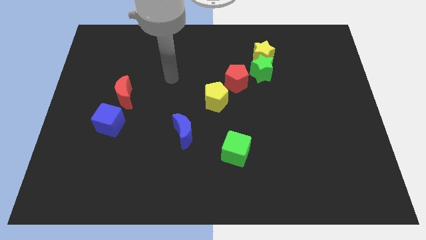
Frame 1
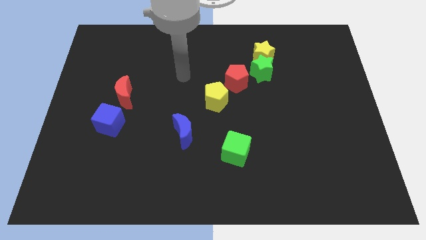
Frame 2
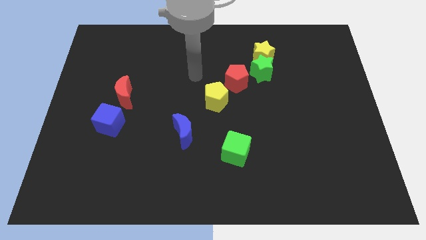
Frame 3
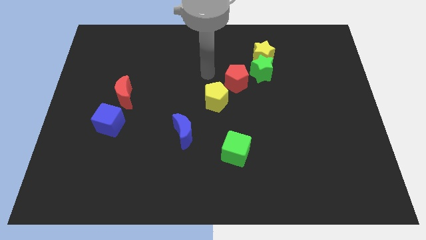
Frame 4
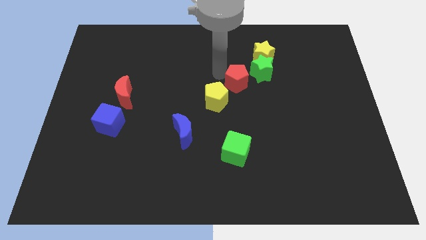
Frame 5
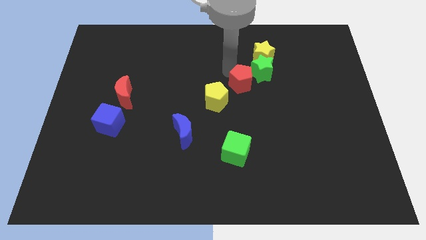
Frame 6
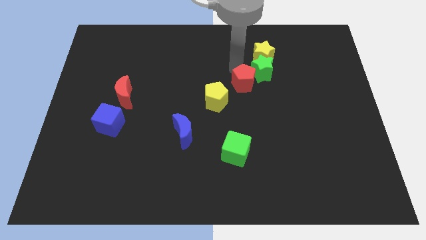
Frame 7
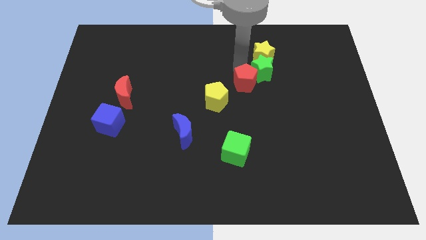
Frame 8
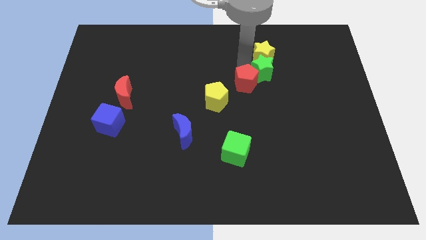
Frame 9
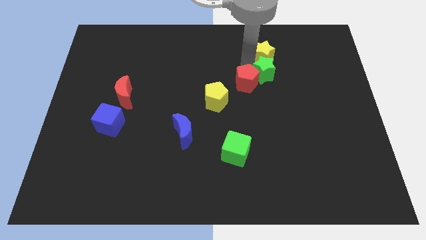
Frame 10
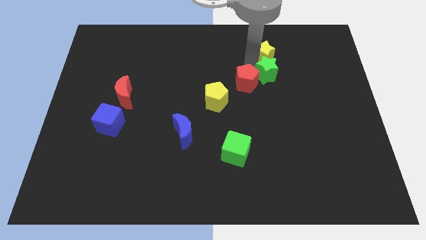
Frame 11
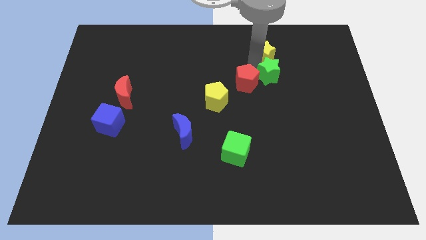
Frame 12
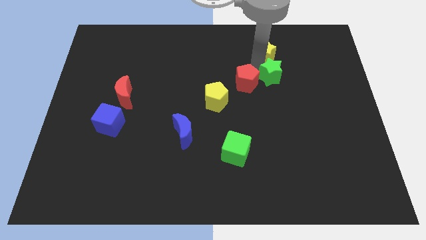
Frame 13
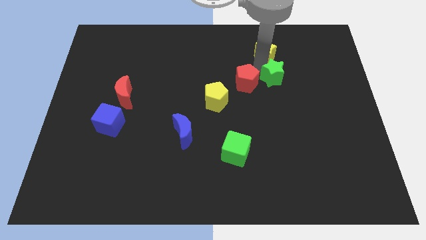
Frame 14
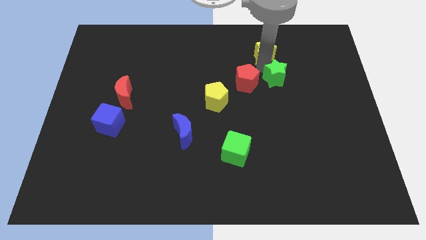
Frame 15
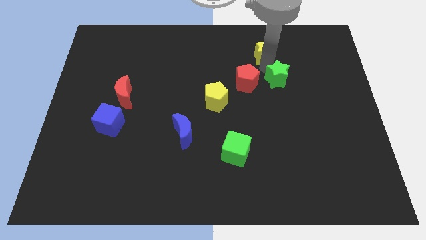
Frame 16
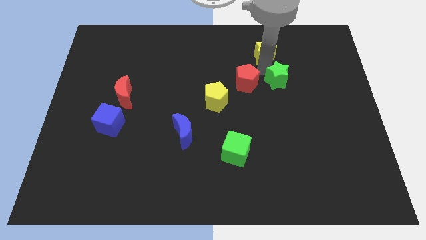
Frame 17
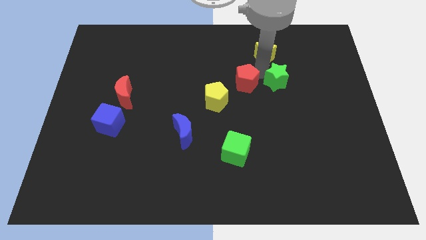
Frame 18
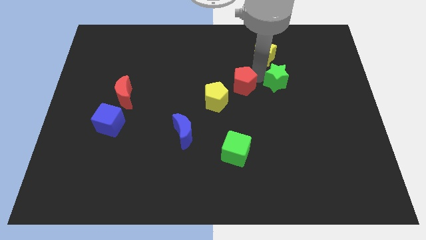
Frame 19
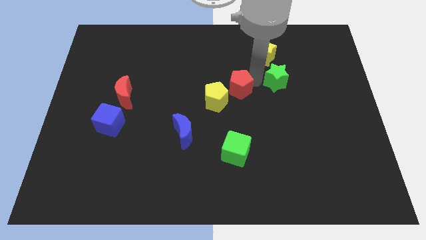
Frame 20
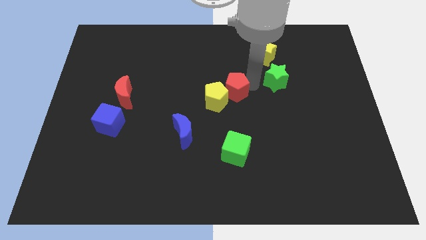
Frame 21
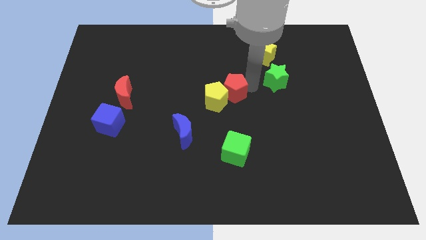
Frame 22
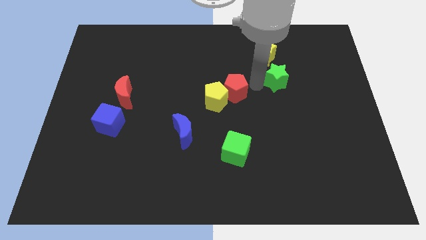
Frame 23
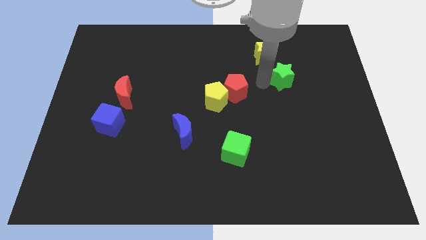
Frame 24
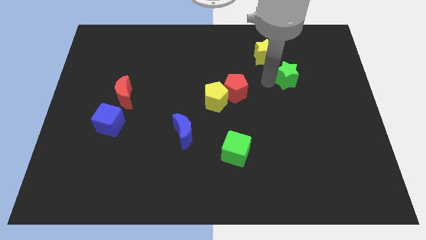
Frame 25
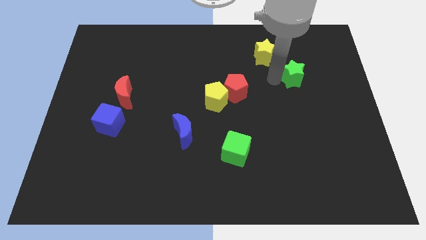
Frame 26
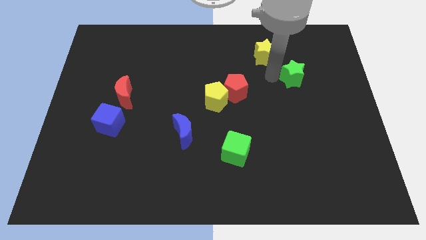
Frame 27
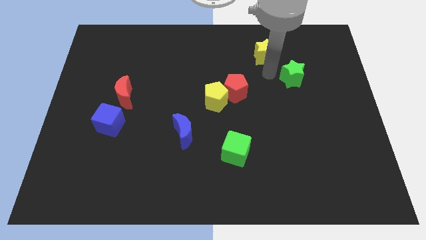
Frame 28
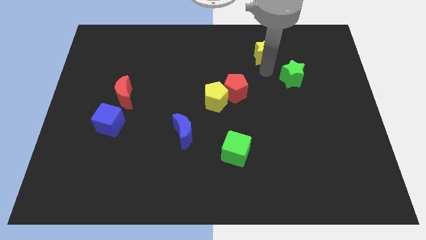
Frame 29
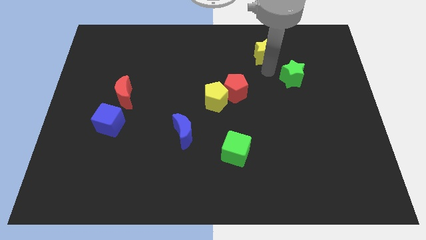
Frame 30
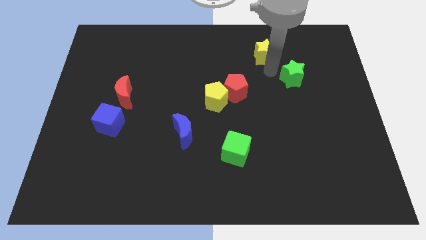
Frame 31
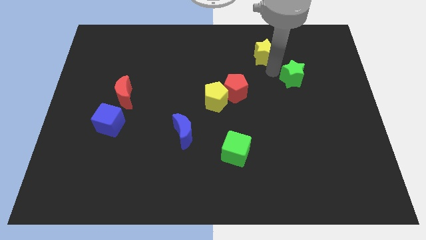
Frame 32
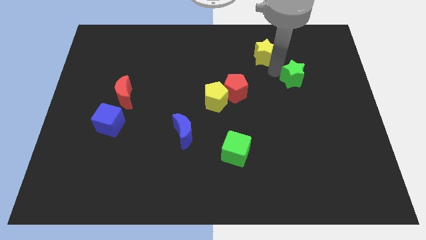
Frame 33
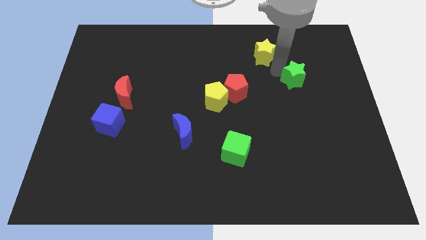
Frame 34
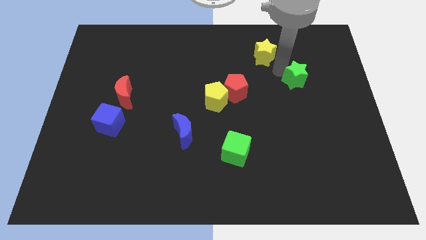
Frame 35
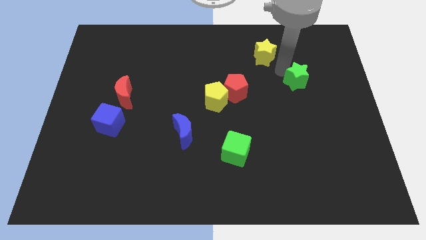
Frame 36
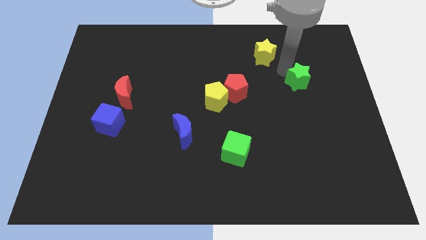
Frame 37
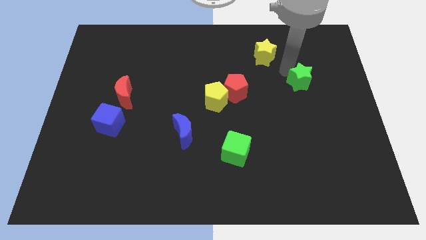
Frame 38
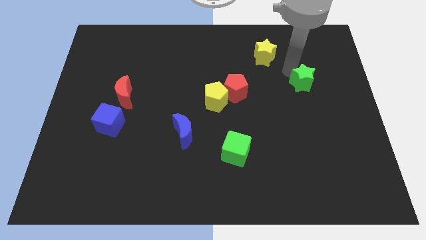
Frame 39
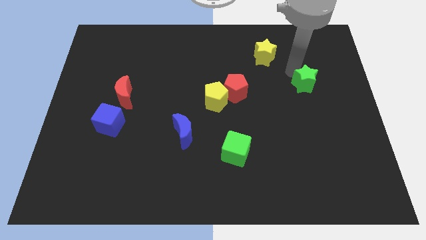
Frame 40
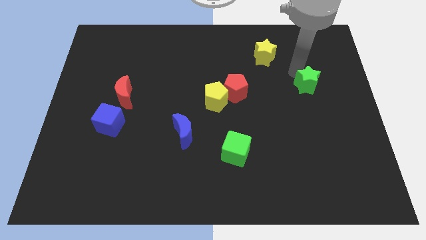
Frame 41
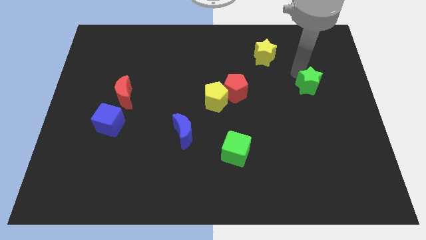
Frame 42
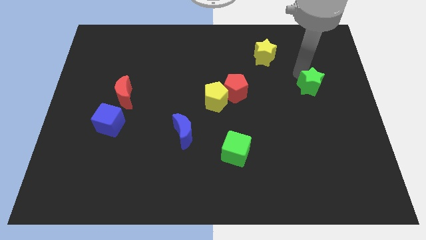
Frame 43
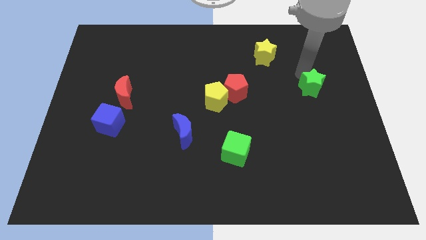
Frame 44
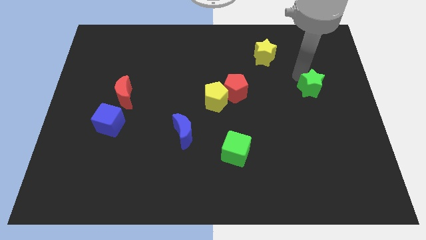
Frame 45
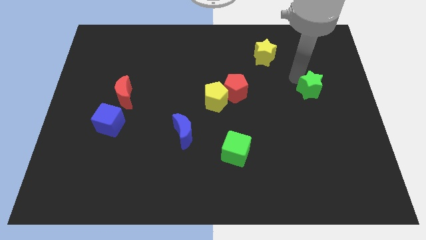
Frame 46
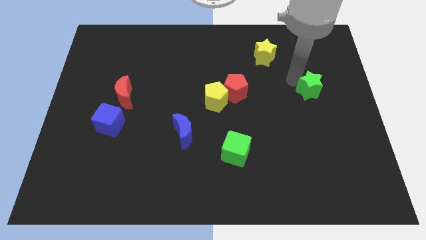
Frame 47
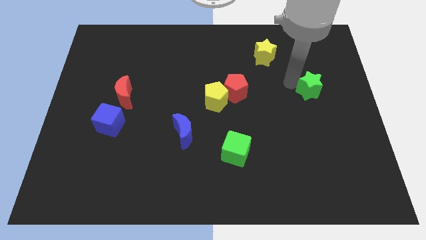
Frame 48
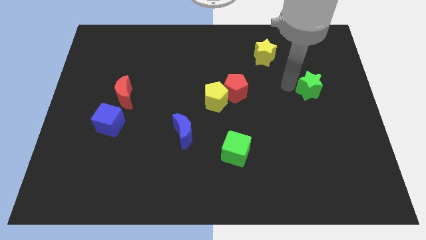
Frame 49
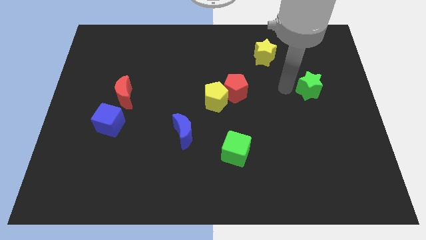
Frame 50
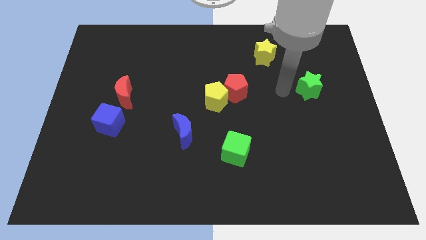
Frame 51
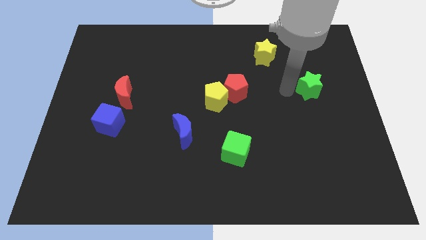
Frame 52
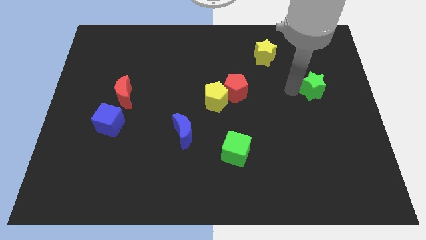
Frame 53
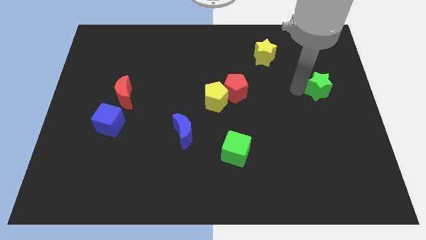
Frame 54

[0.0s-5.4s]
slide the green star to the right side

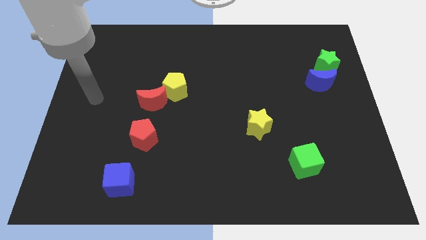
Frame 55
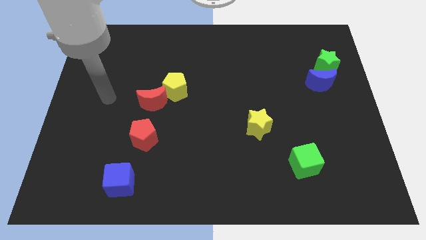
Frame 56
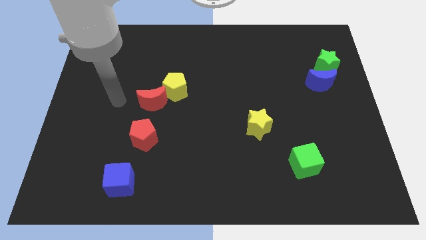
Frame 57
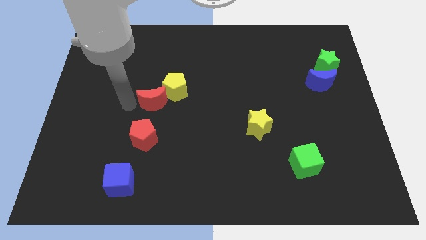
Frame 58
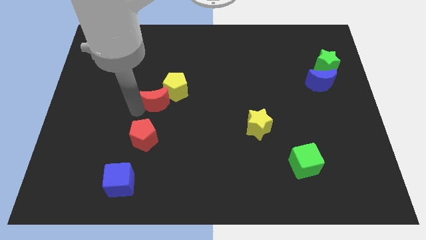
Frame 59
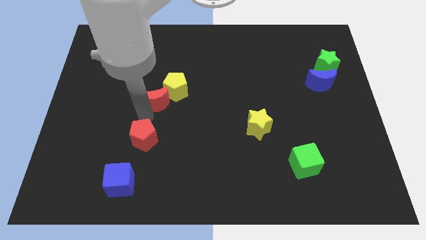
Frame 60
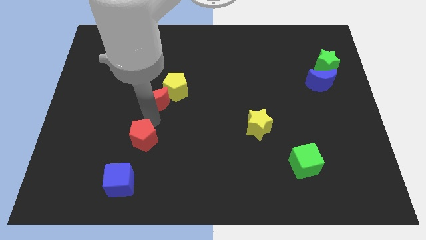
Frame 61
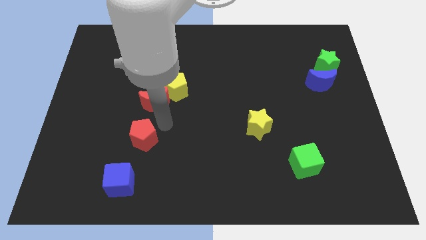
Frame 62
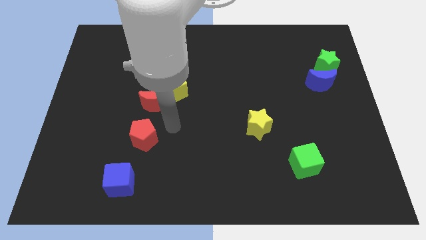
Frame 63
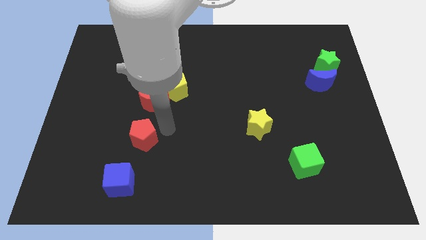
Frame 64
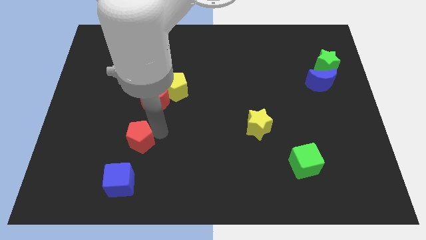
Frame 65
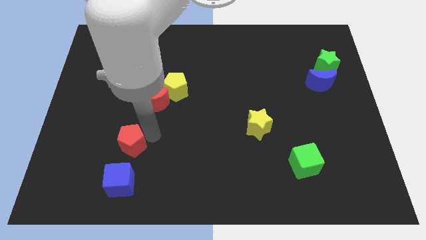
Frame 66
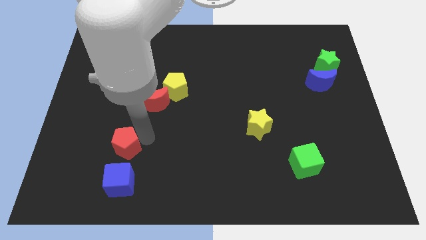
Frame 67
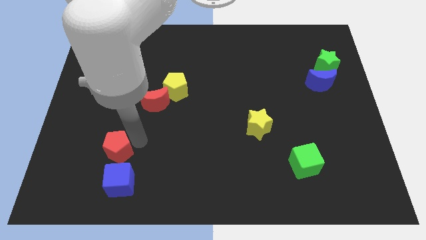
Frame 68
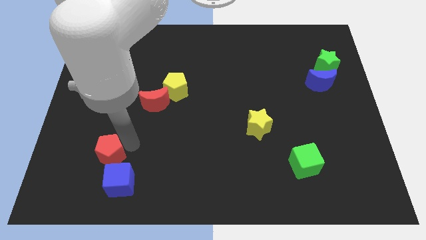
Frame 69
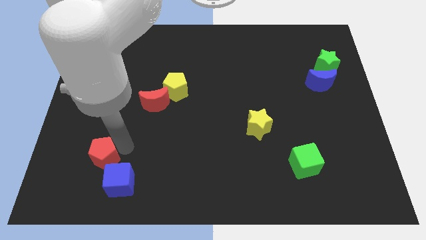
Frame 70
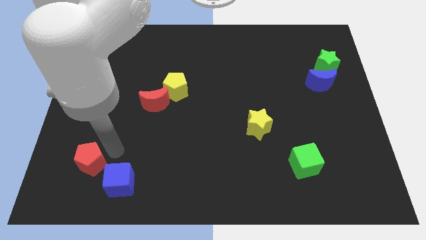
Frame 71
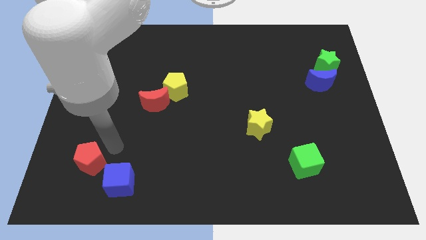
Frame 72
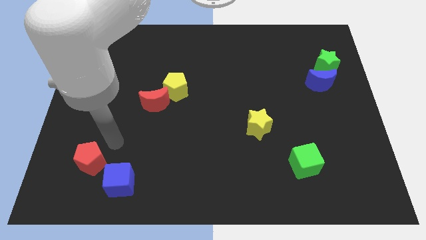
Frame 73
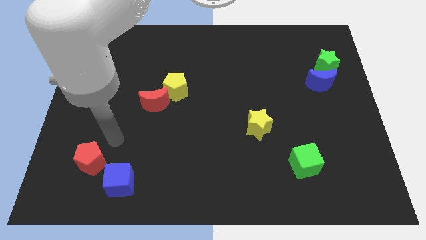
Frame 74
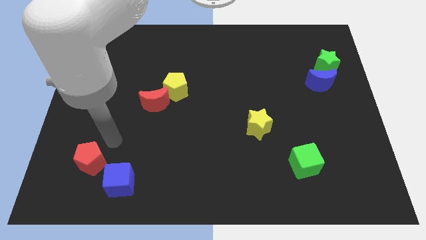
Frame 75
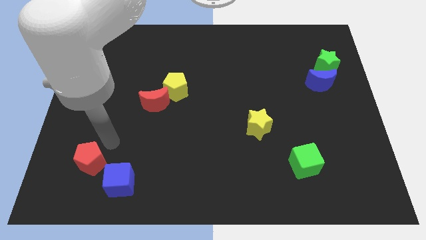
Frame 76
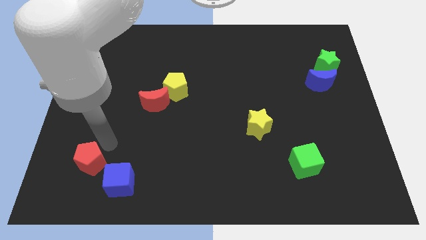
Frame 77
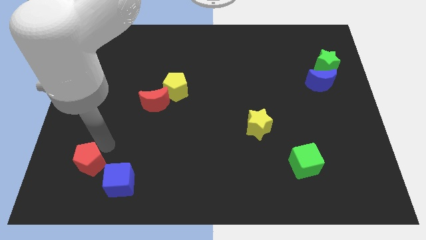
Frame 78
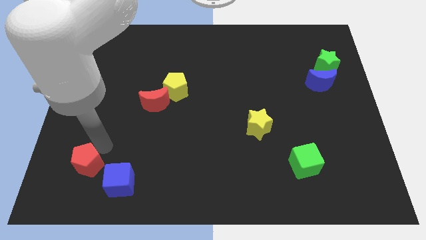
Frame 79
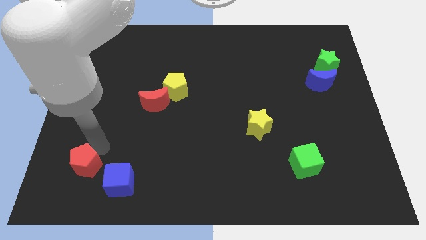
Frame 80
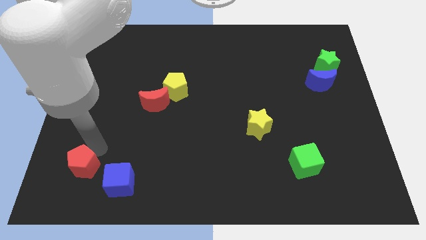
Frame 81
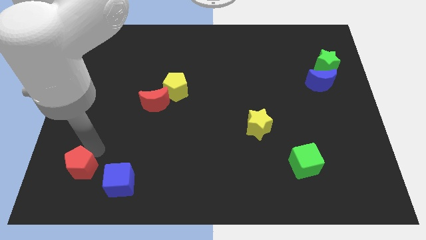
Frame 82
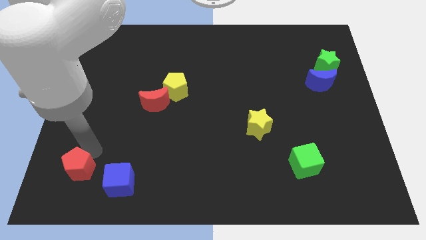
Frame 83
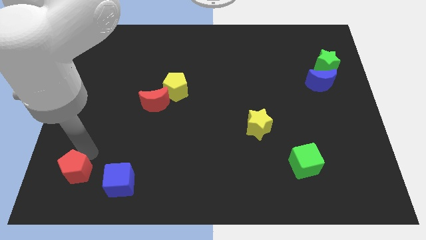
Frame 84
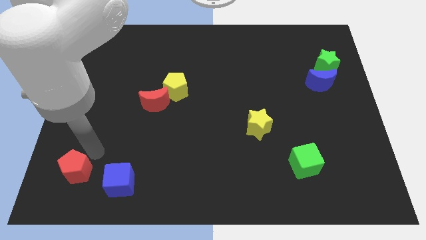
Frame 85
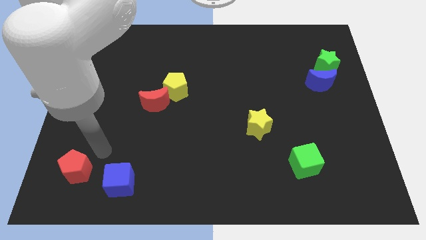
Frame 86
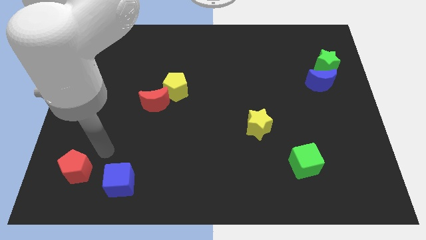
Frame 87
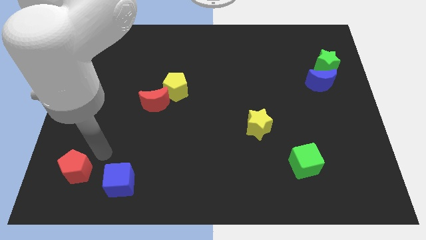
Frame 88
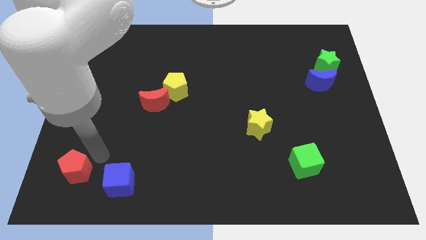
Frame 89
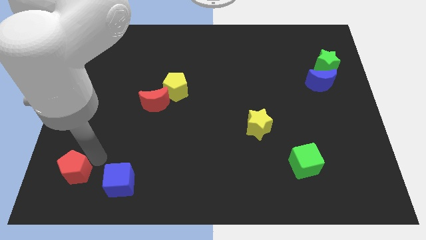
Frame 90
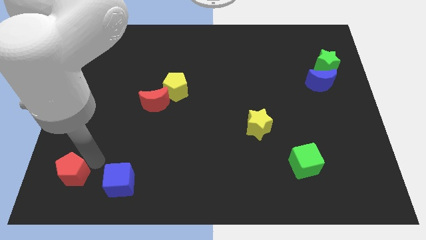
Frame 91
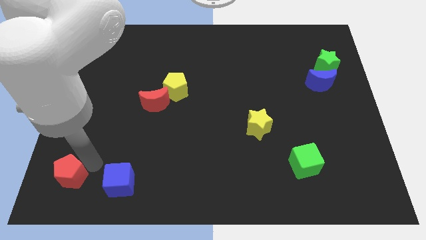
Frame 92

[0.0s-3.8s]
move the red pentagon to the lower left corner
